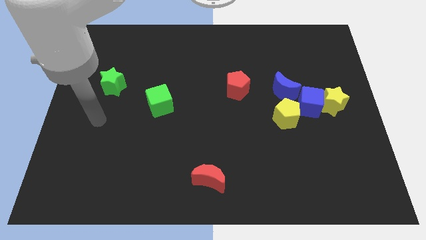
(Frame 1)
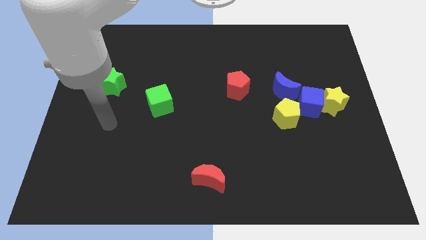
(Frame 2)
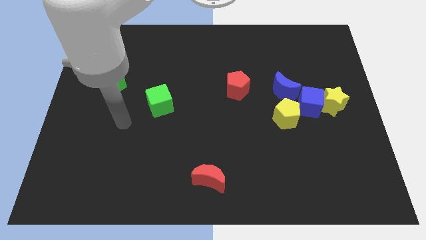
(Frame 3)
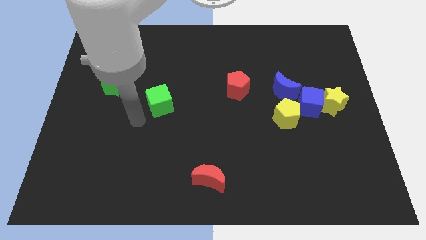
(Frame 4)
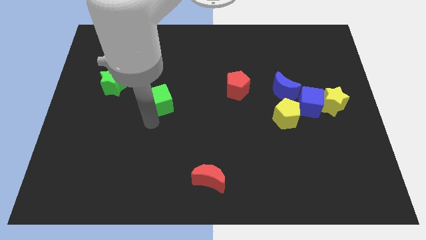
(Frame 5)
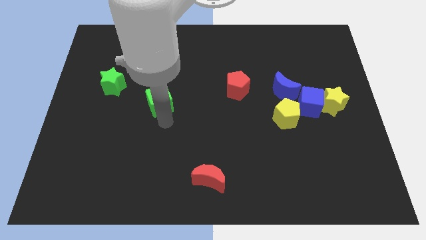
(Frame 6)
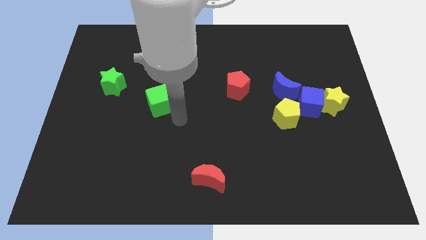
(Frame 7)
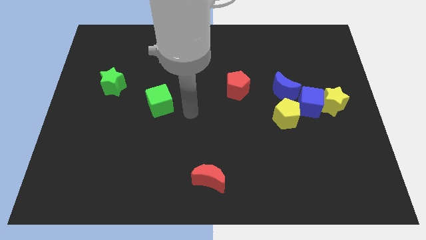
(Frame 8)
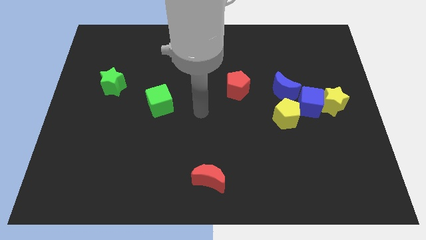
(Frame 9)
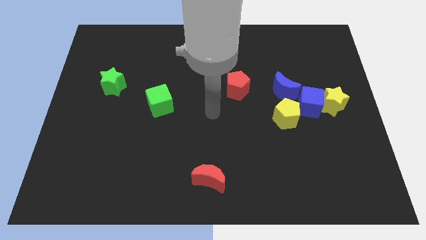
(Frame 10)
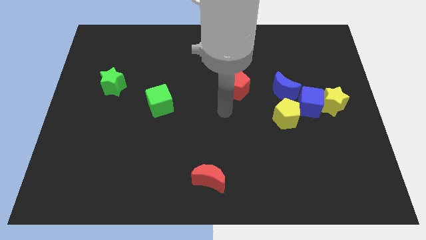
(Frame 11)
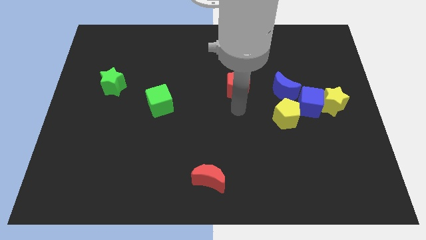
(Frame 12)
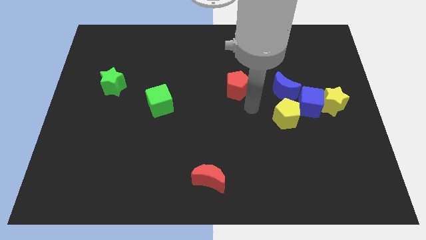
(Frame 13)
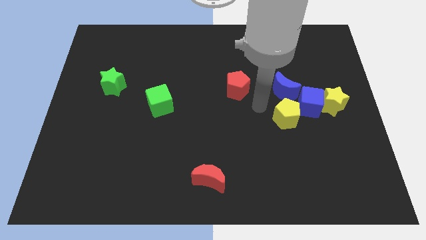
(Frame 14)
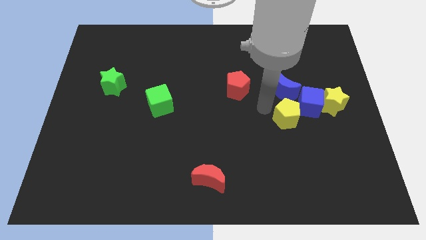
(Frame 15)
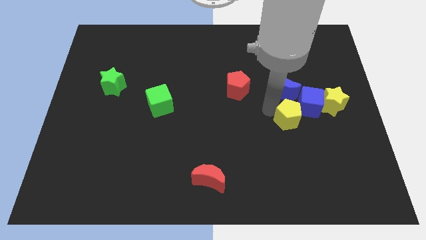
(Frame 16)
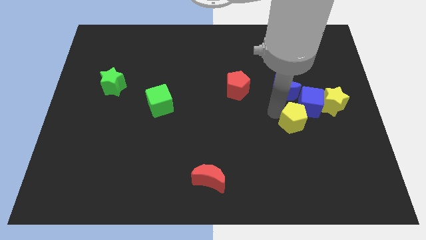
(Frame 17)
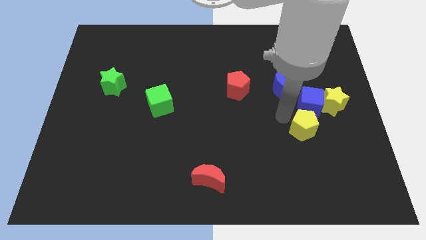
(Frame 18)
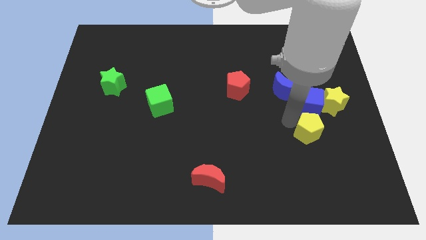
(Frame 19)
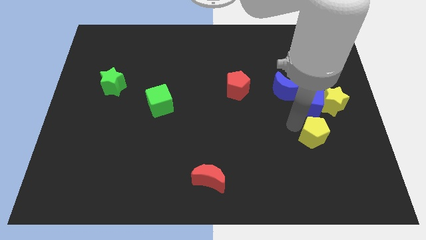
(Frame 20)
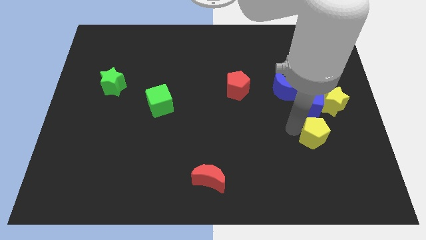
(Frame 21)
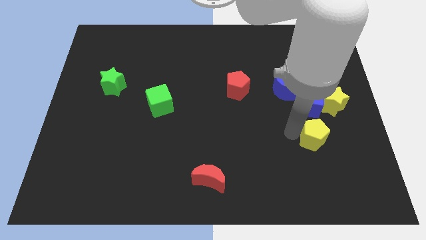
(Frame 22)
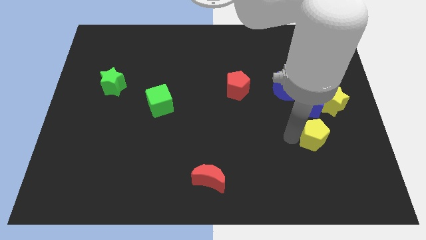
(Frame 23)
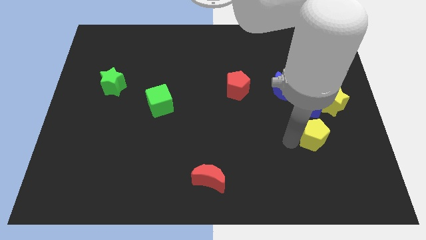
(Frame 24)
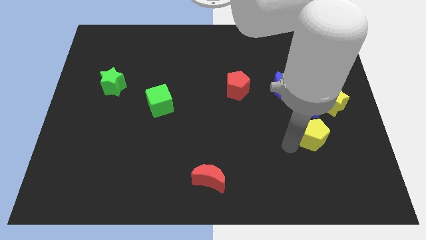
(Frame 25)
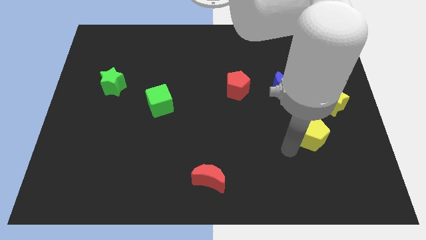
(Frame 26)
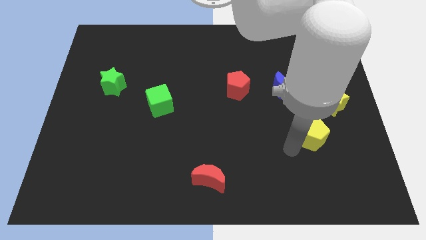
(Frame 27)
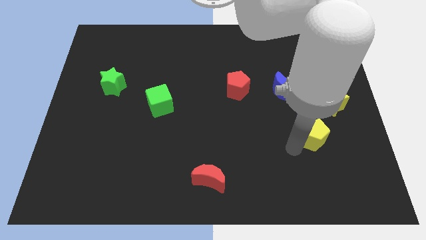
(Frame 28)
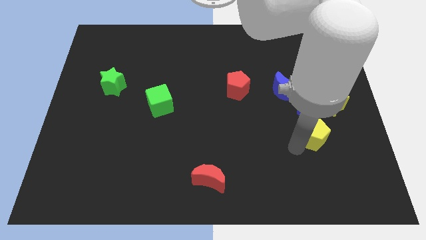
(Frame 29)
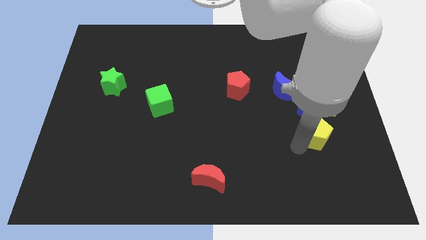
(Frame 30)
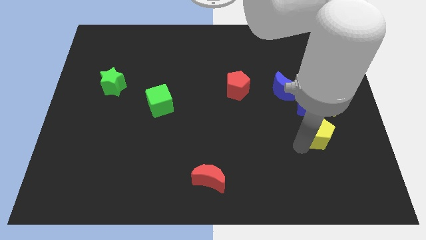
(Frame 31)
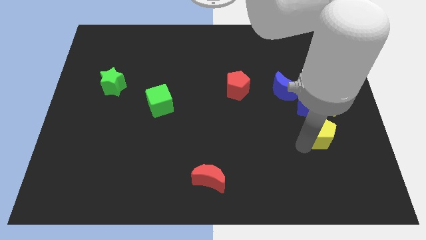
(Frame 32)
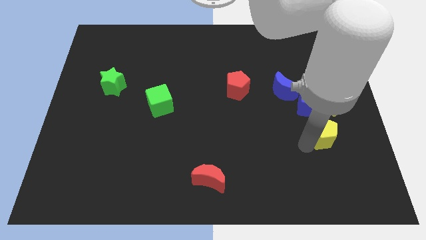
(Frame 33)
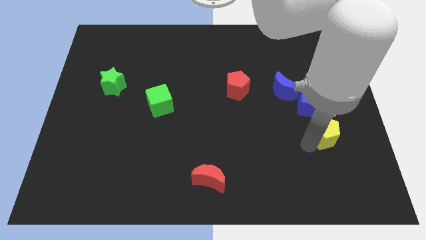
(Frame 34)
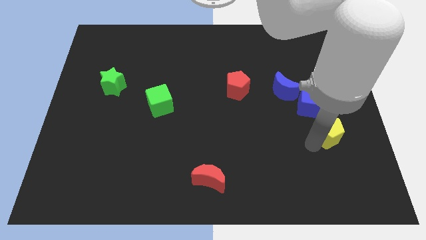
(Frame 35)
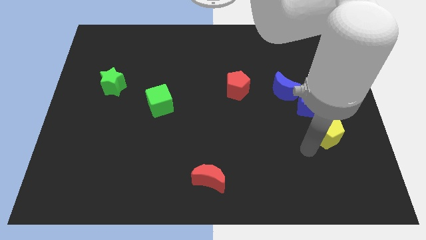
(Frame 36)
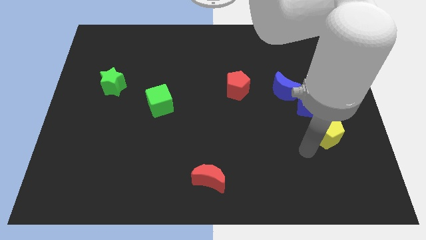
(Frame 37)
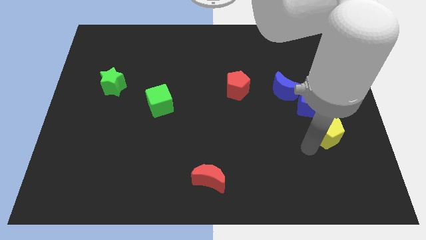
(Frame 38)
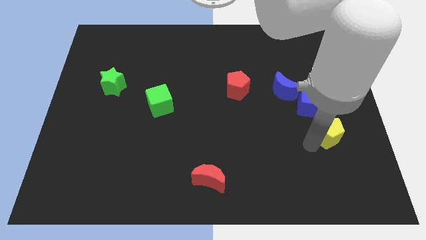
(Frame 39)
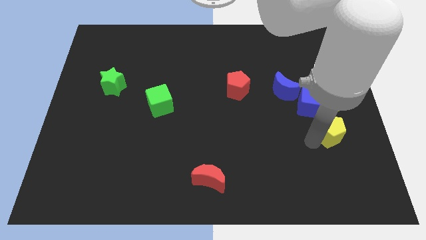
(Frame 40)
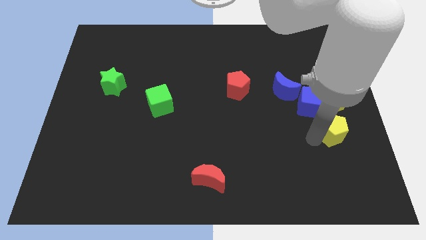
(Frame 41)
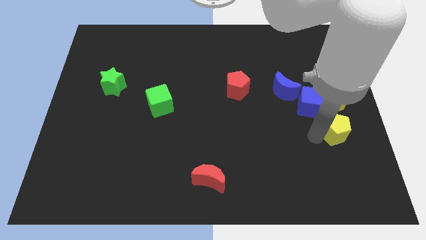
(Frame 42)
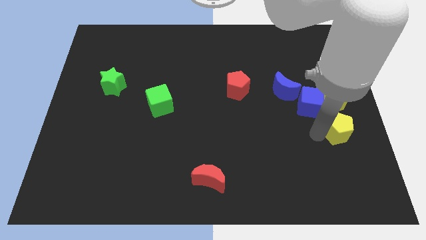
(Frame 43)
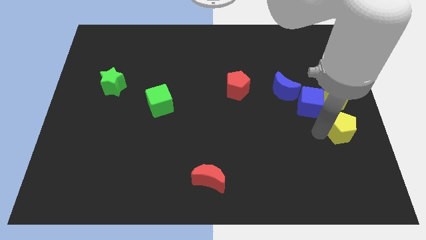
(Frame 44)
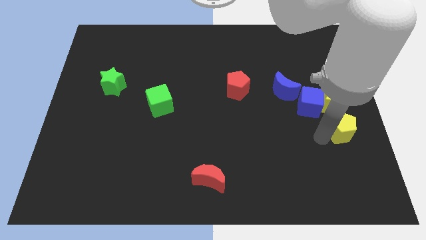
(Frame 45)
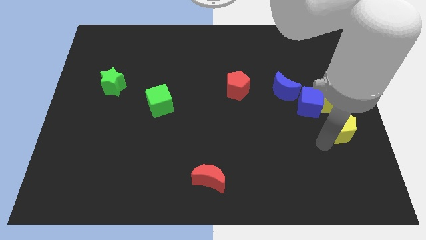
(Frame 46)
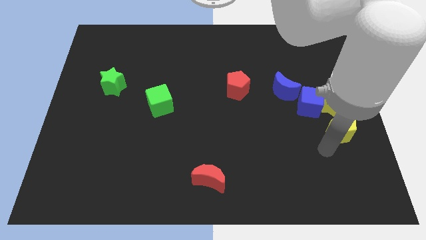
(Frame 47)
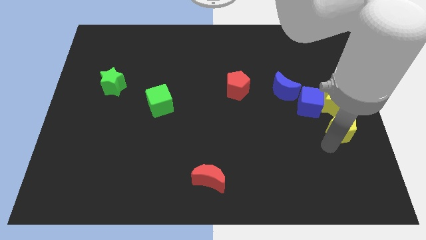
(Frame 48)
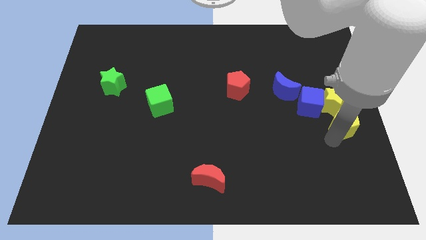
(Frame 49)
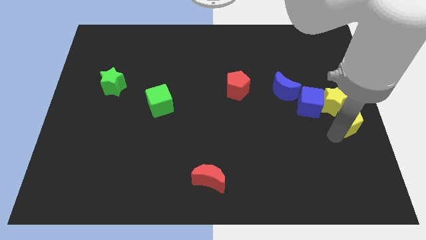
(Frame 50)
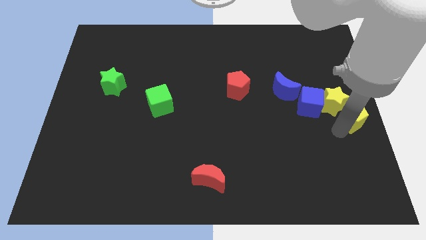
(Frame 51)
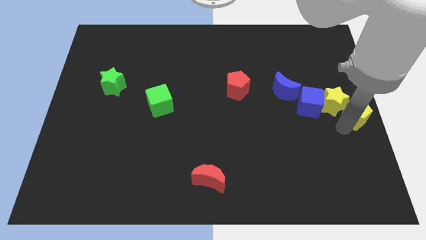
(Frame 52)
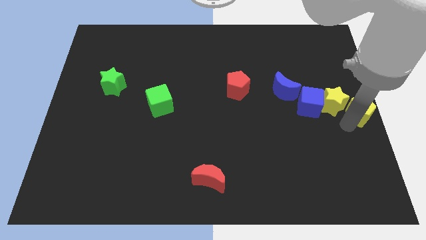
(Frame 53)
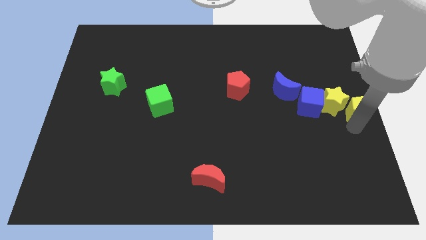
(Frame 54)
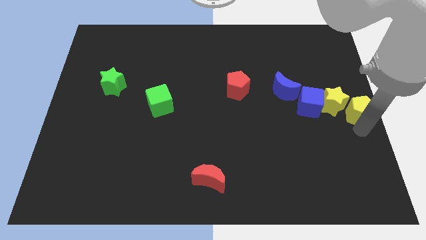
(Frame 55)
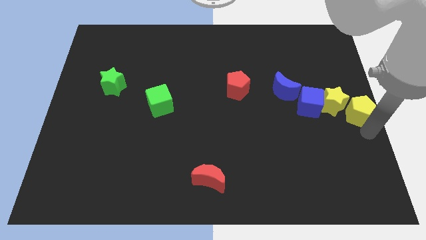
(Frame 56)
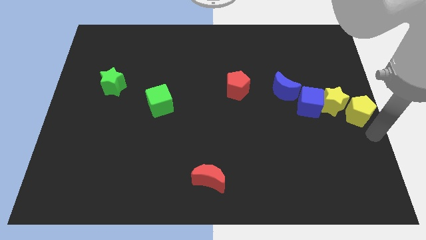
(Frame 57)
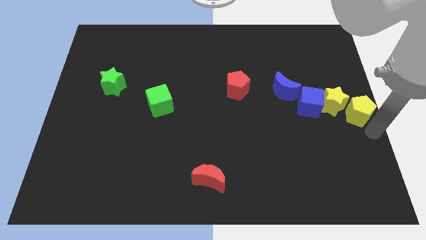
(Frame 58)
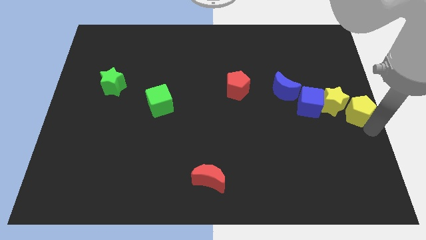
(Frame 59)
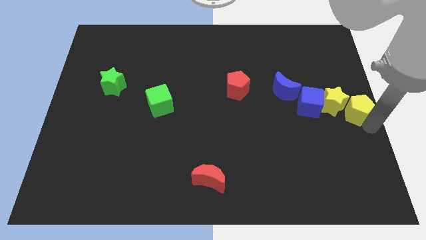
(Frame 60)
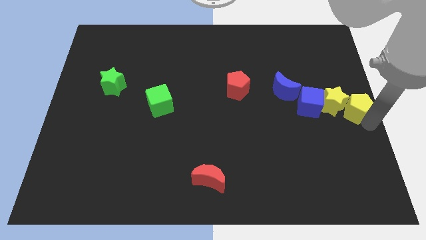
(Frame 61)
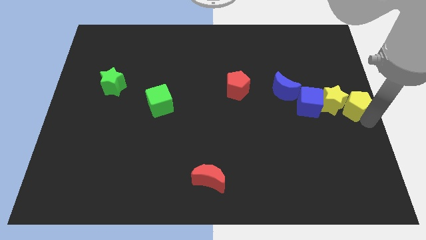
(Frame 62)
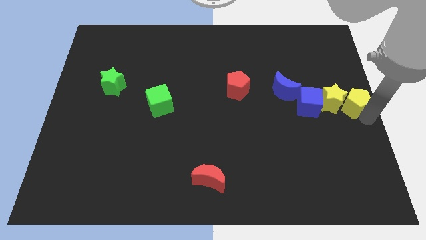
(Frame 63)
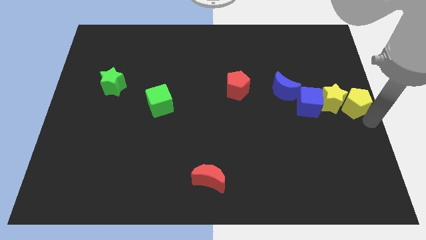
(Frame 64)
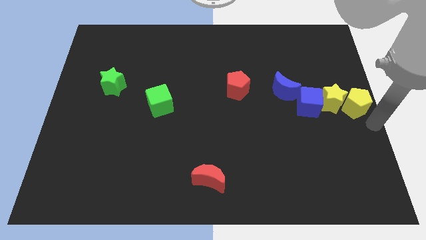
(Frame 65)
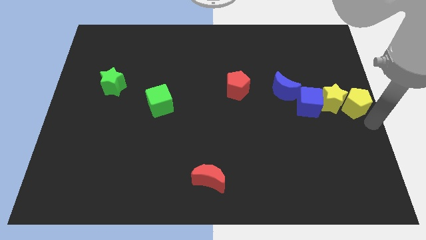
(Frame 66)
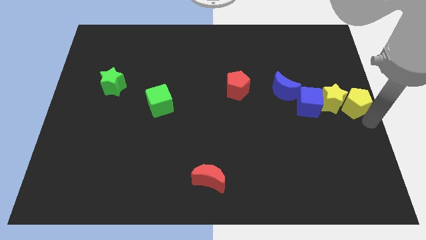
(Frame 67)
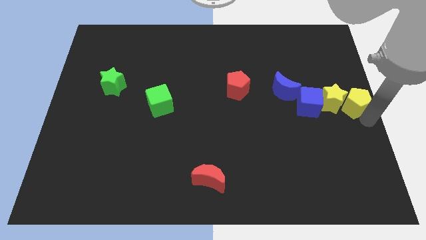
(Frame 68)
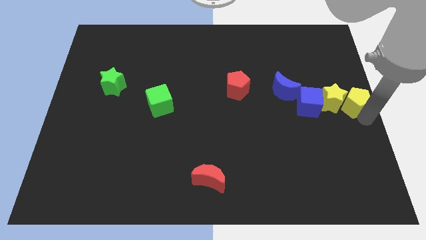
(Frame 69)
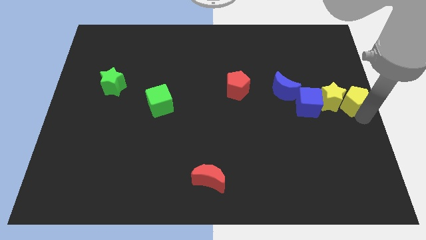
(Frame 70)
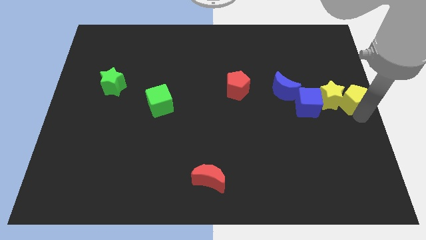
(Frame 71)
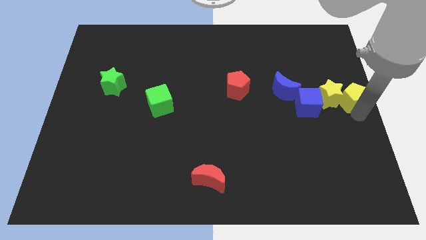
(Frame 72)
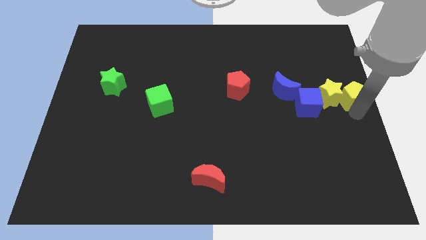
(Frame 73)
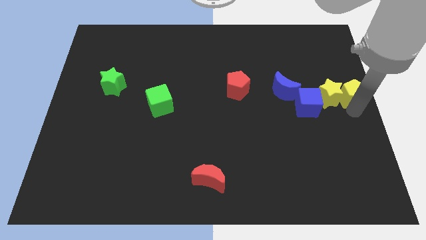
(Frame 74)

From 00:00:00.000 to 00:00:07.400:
put the yellow pentagon to the right side of the blue moon

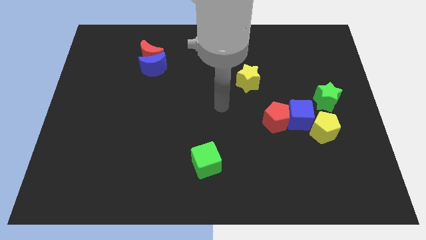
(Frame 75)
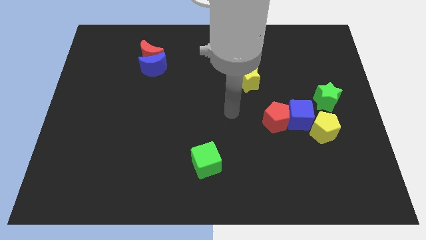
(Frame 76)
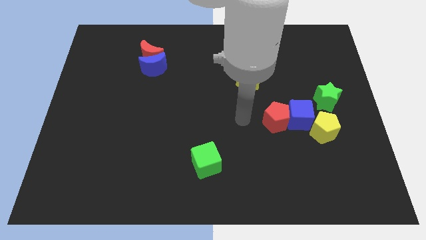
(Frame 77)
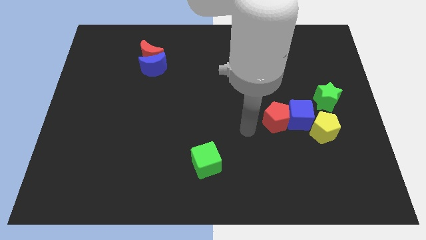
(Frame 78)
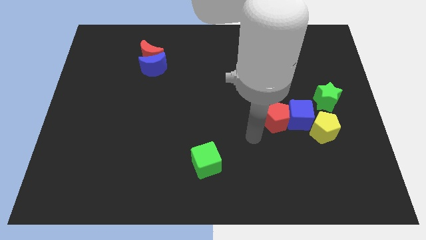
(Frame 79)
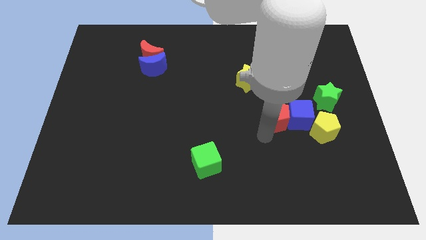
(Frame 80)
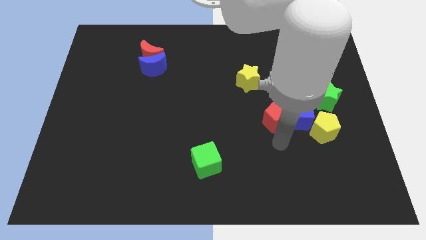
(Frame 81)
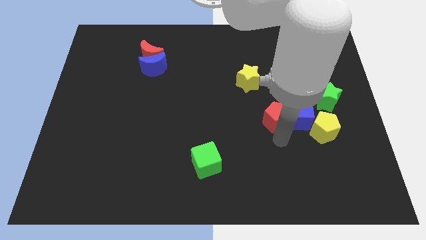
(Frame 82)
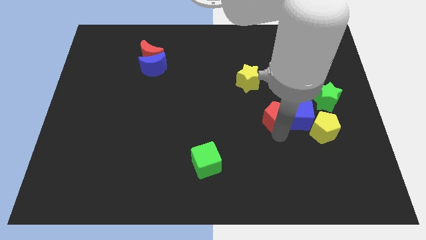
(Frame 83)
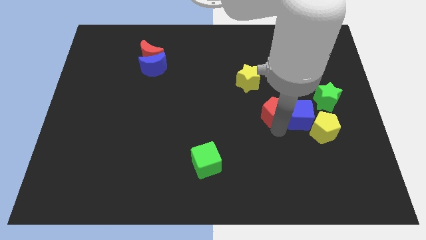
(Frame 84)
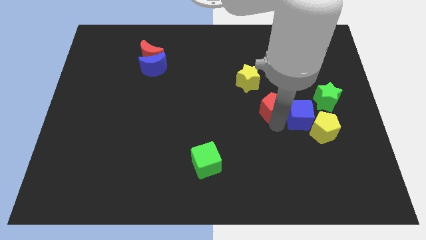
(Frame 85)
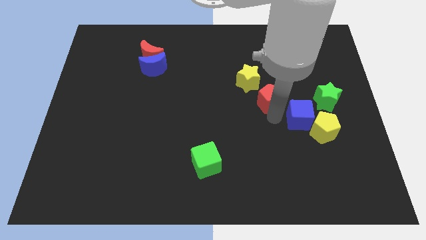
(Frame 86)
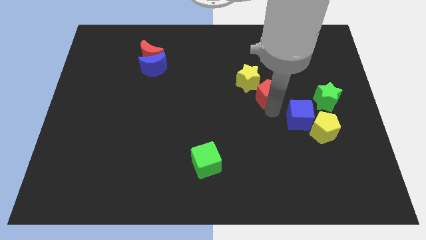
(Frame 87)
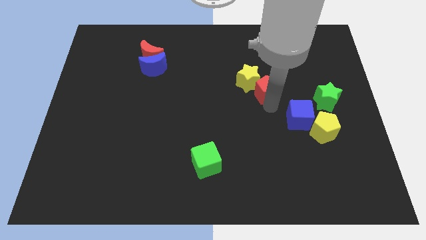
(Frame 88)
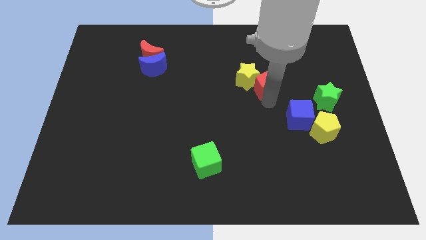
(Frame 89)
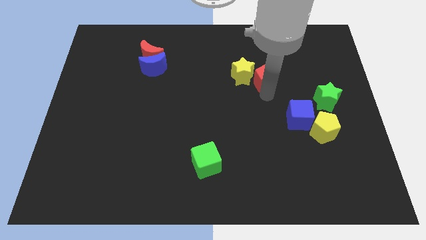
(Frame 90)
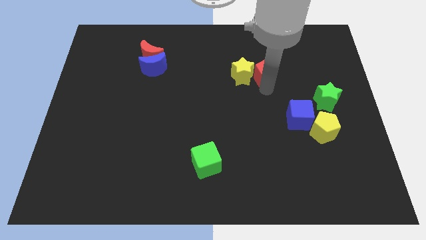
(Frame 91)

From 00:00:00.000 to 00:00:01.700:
move the red pentagon diagonally up and to the right of the yellow star
